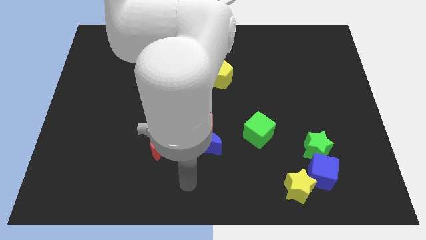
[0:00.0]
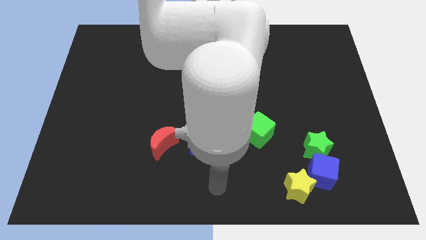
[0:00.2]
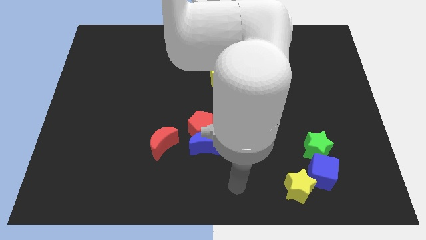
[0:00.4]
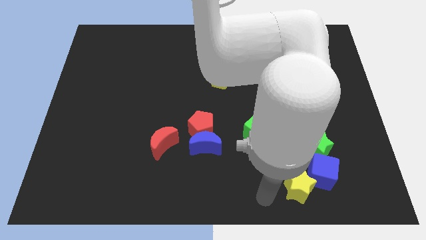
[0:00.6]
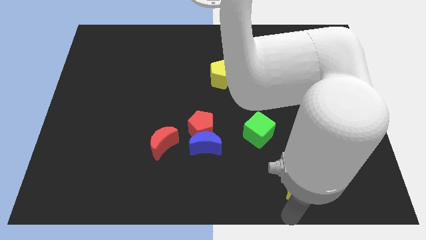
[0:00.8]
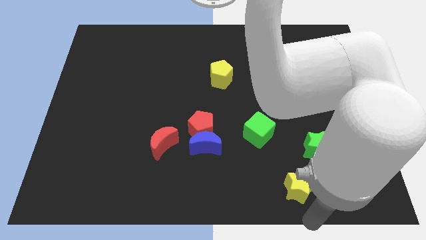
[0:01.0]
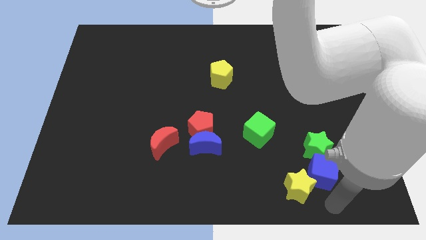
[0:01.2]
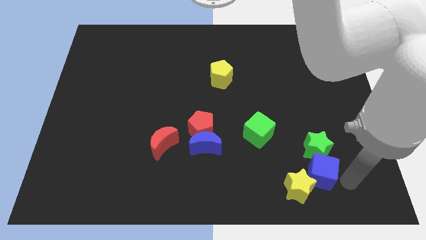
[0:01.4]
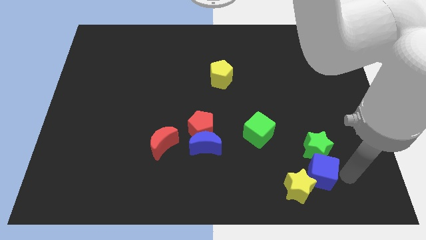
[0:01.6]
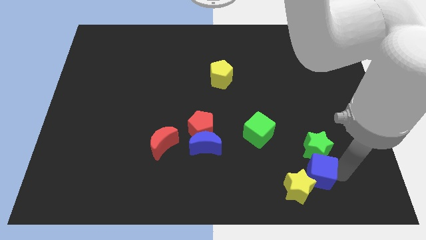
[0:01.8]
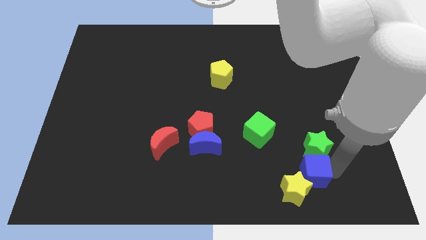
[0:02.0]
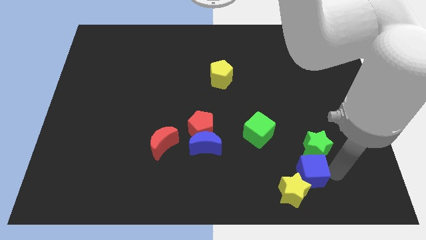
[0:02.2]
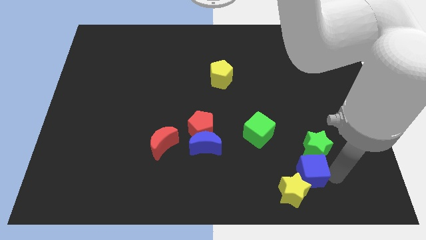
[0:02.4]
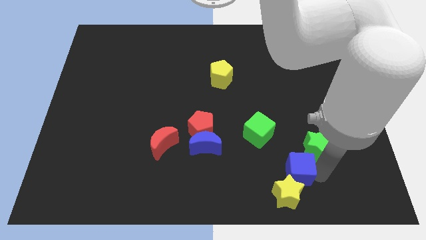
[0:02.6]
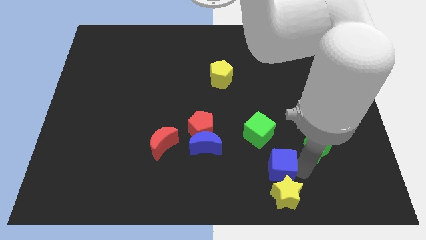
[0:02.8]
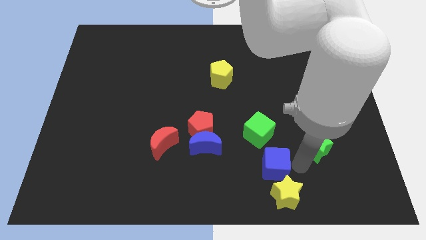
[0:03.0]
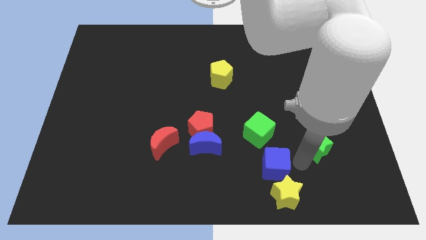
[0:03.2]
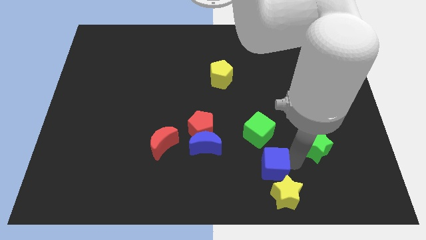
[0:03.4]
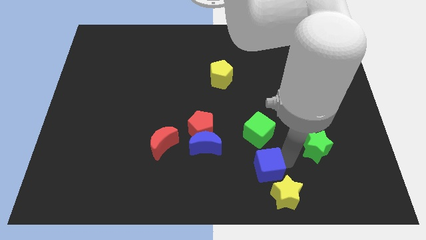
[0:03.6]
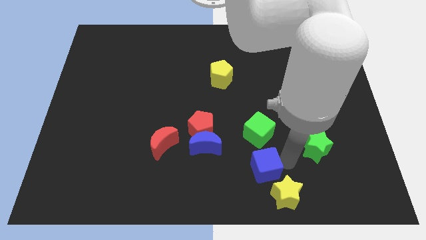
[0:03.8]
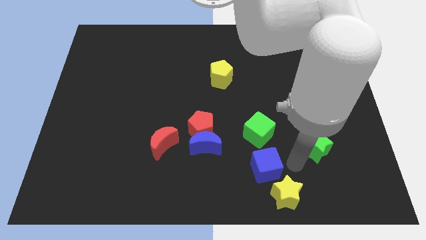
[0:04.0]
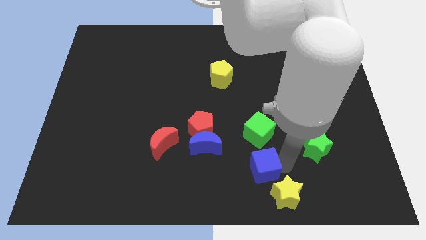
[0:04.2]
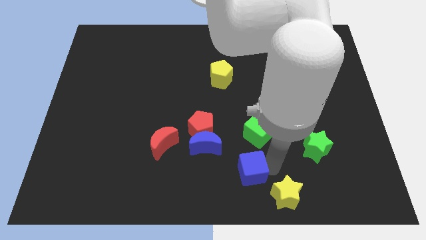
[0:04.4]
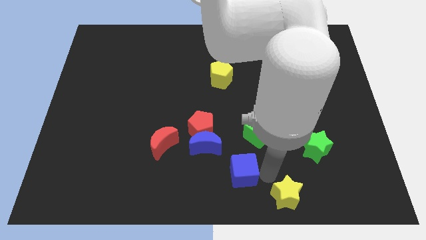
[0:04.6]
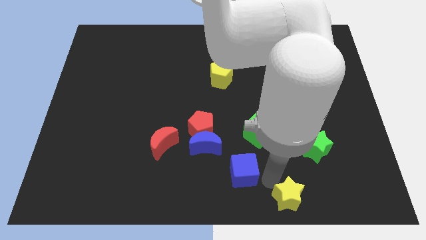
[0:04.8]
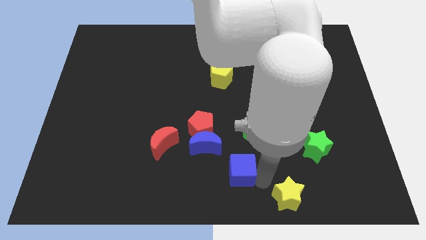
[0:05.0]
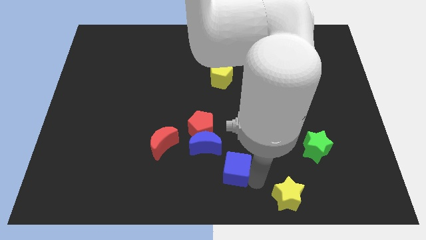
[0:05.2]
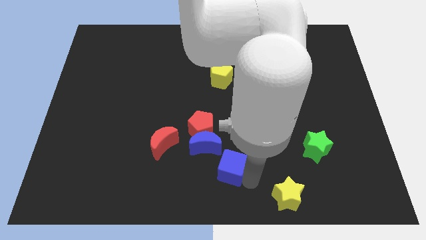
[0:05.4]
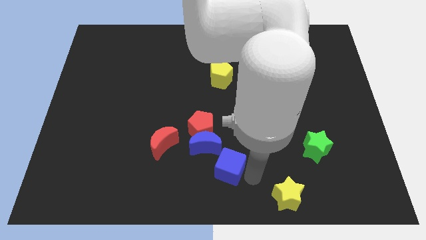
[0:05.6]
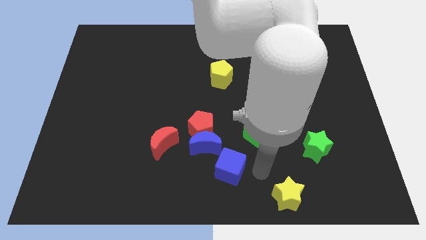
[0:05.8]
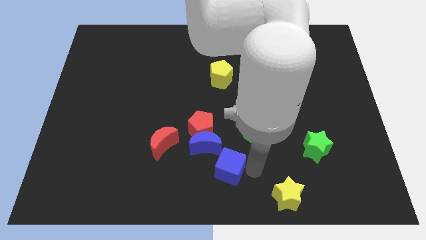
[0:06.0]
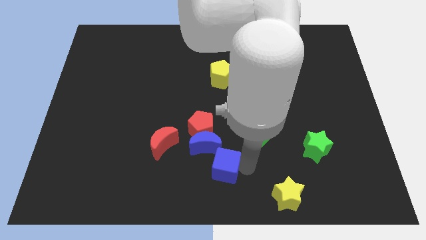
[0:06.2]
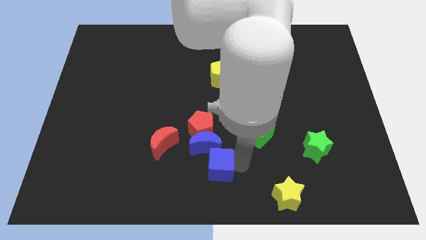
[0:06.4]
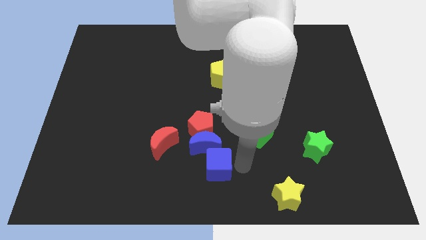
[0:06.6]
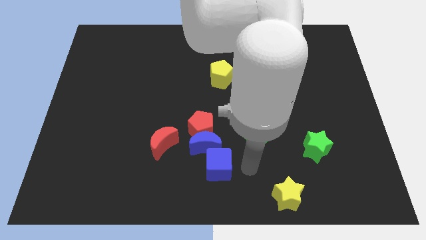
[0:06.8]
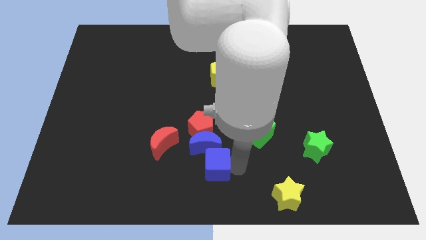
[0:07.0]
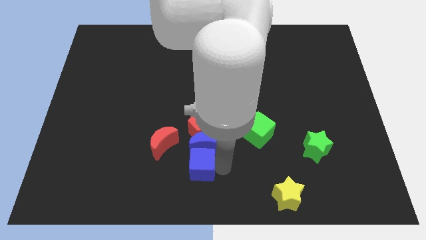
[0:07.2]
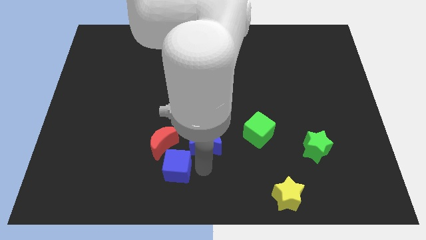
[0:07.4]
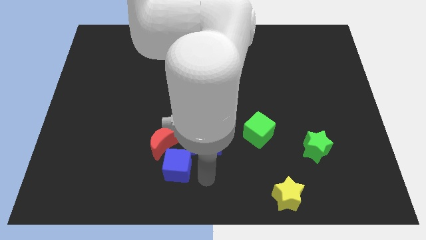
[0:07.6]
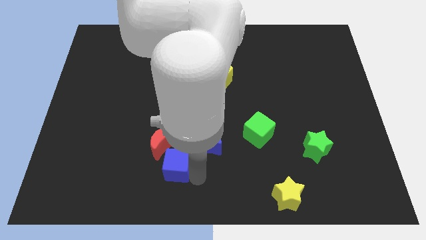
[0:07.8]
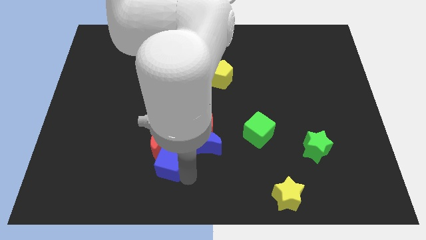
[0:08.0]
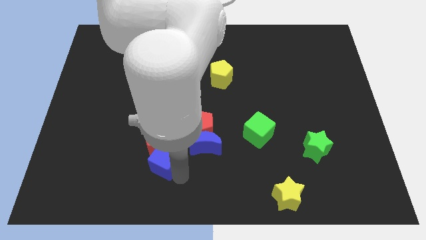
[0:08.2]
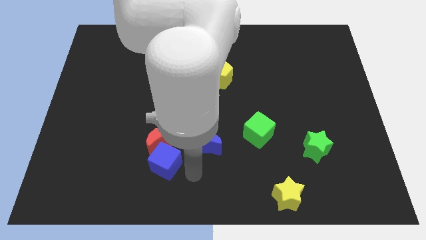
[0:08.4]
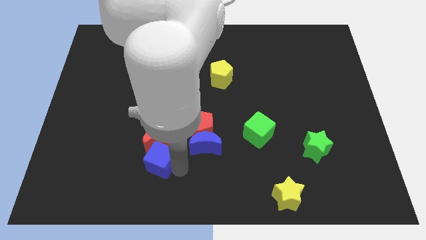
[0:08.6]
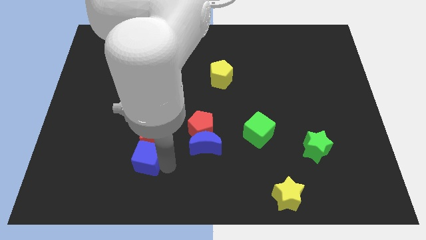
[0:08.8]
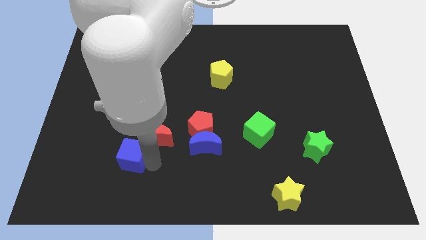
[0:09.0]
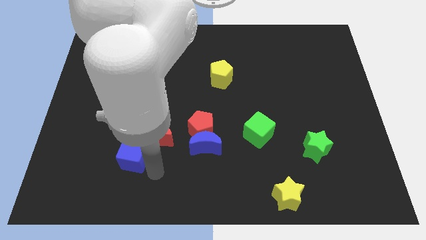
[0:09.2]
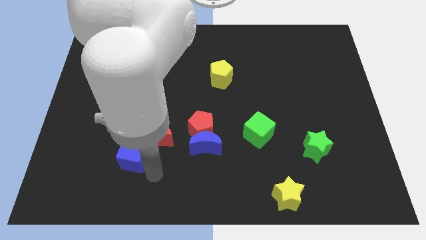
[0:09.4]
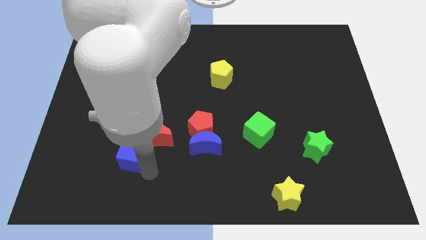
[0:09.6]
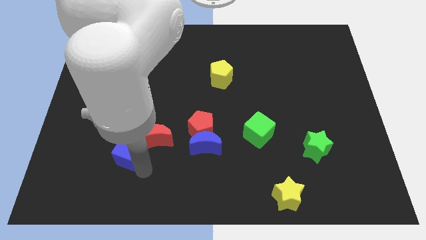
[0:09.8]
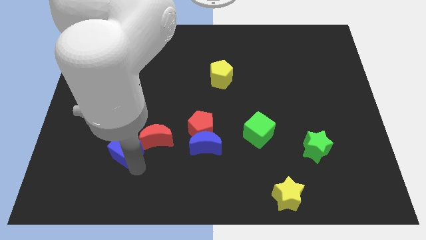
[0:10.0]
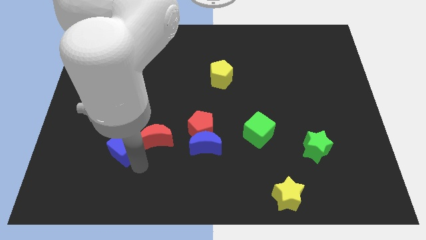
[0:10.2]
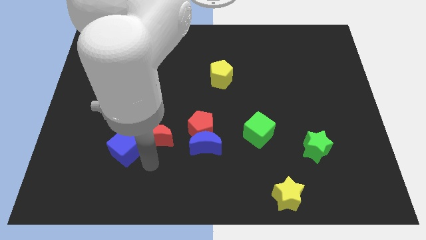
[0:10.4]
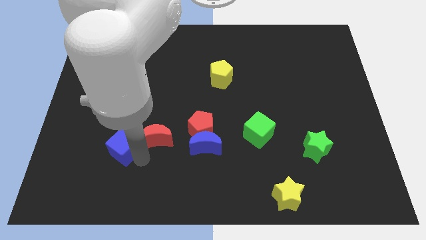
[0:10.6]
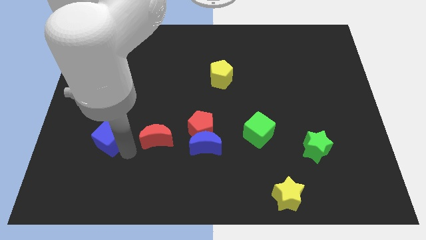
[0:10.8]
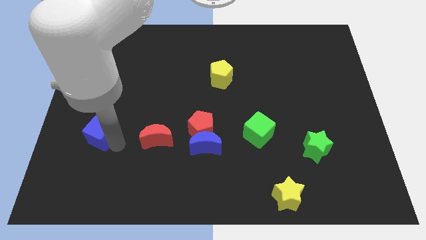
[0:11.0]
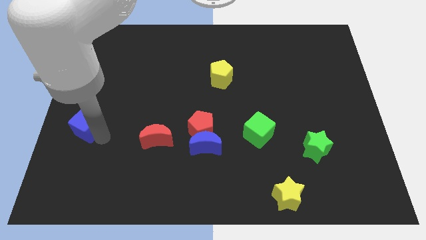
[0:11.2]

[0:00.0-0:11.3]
push the blue cube to the center left

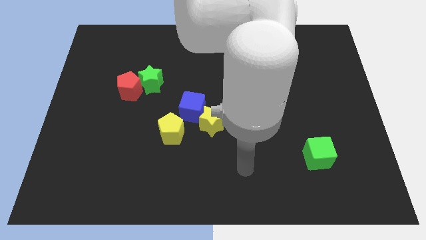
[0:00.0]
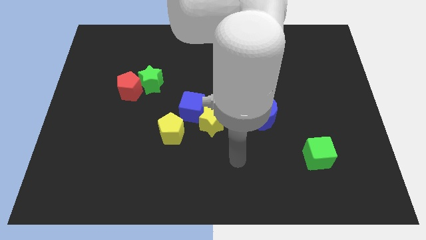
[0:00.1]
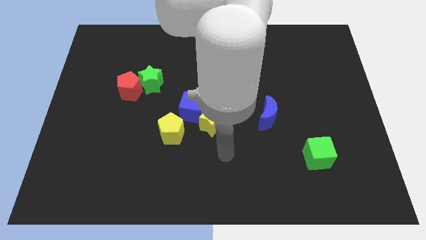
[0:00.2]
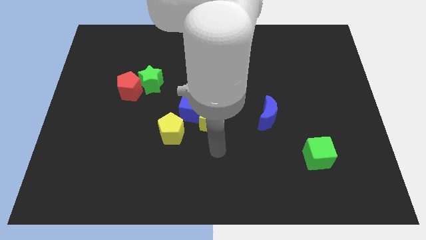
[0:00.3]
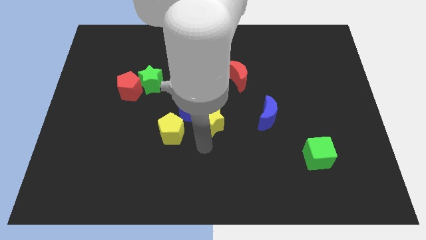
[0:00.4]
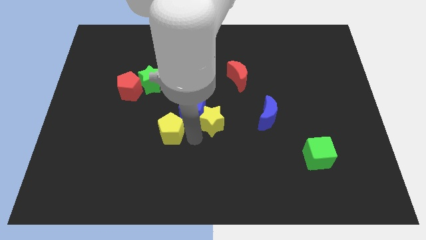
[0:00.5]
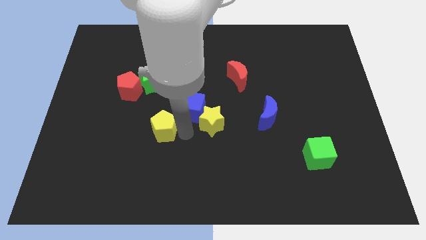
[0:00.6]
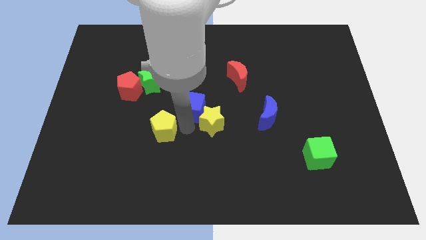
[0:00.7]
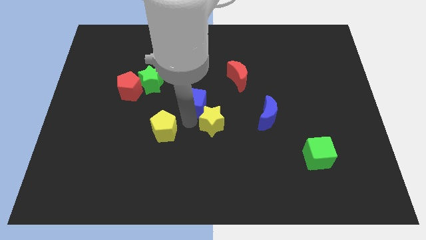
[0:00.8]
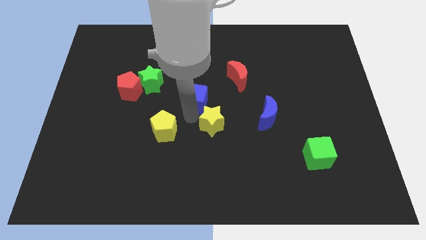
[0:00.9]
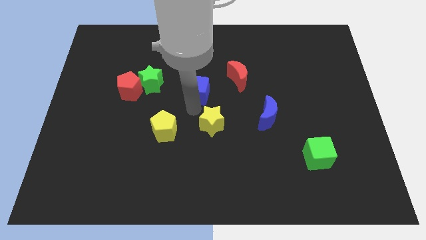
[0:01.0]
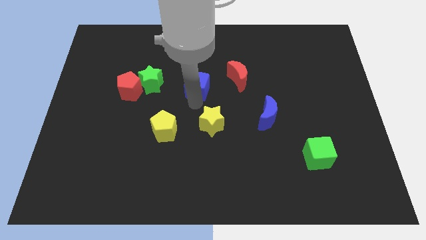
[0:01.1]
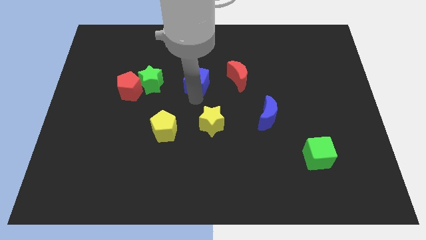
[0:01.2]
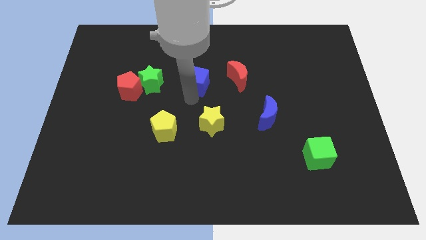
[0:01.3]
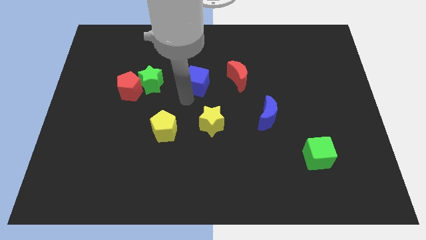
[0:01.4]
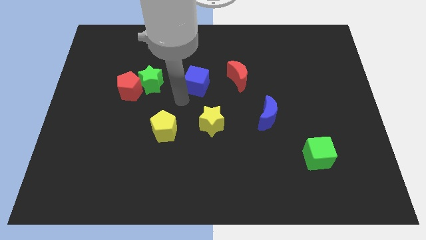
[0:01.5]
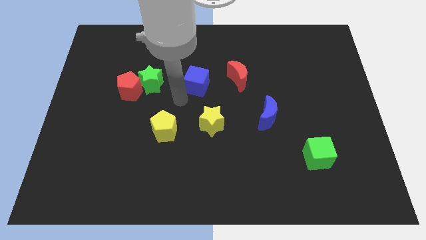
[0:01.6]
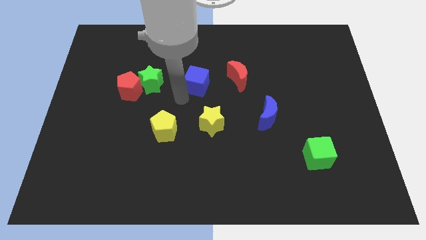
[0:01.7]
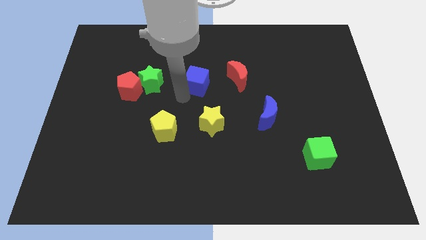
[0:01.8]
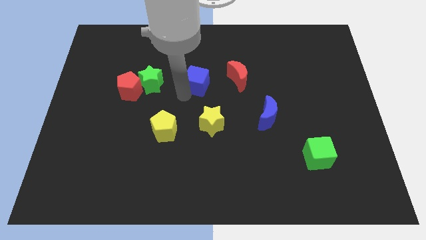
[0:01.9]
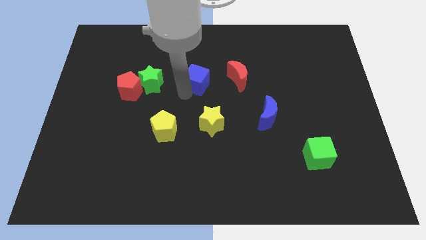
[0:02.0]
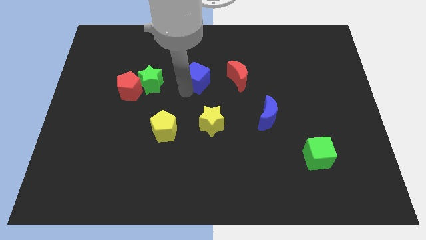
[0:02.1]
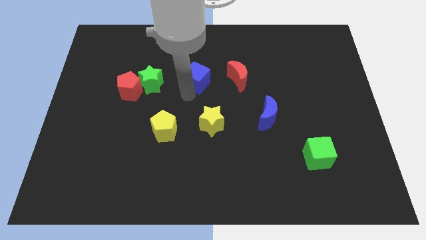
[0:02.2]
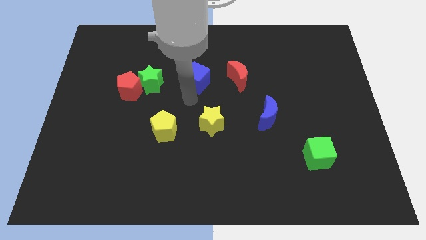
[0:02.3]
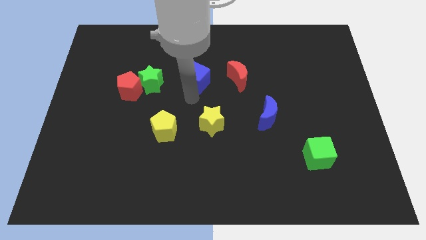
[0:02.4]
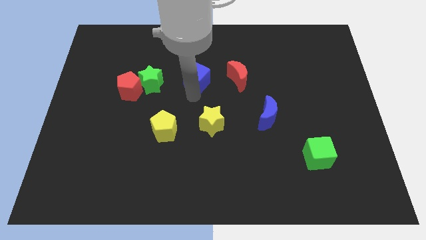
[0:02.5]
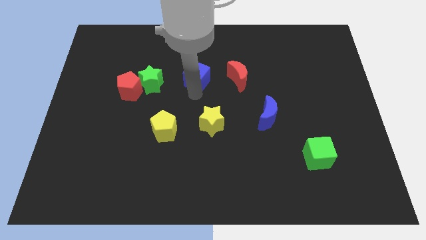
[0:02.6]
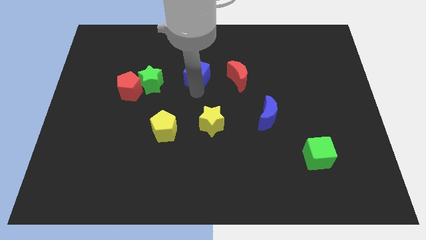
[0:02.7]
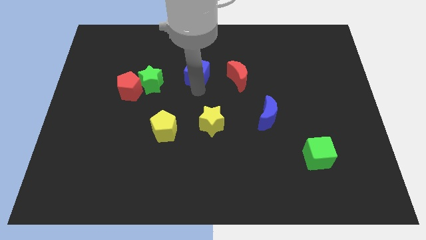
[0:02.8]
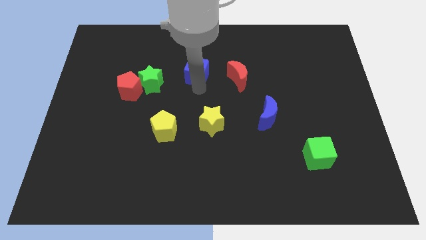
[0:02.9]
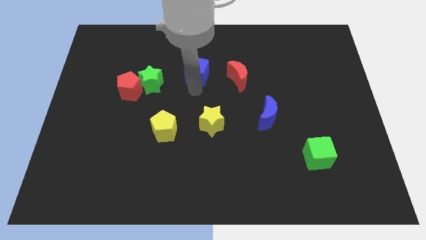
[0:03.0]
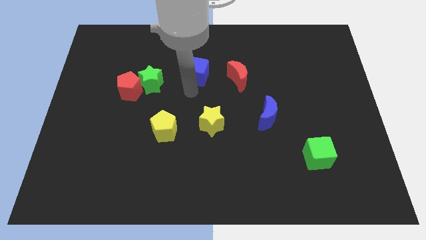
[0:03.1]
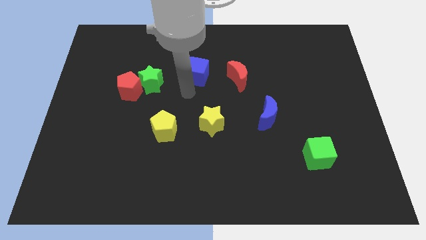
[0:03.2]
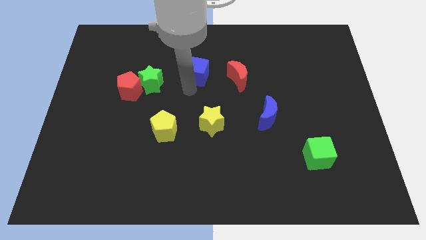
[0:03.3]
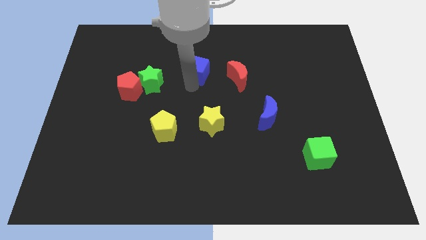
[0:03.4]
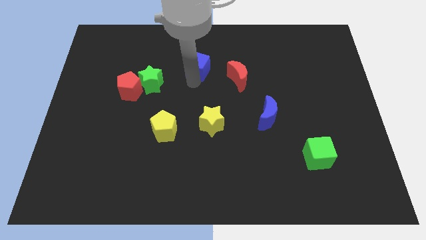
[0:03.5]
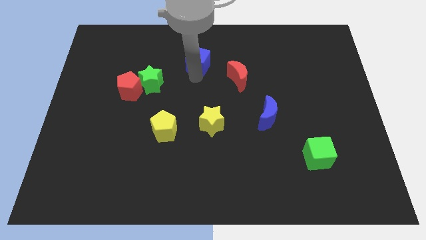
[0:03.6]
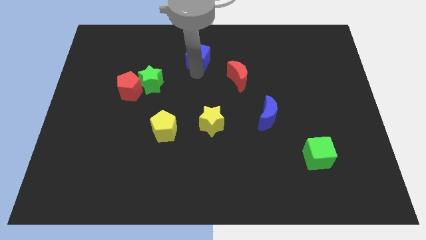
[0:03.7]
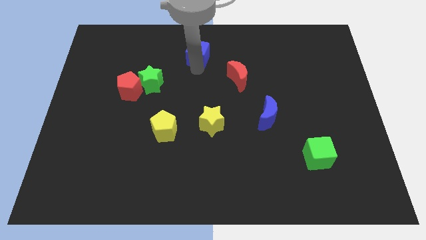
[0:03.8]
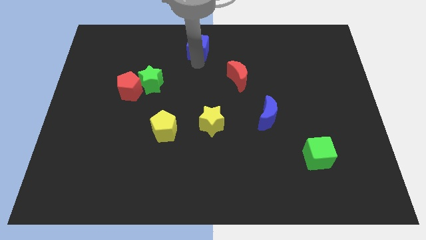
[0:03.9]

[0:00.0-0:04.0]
move the blue cube to the top
